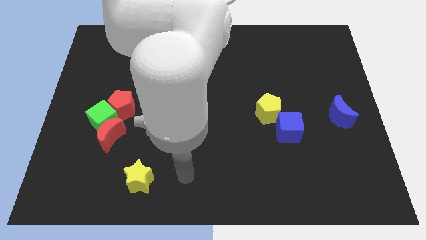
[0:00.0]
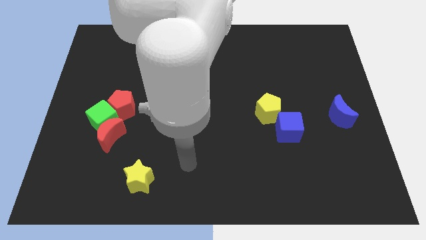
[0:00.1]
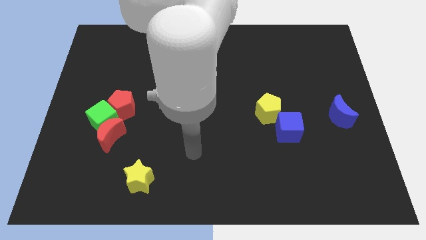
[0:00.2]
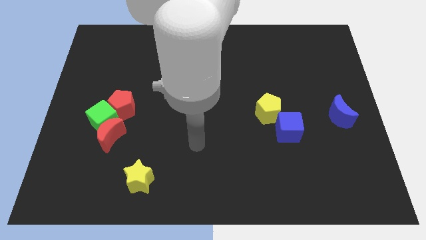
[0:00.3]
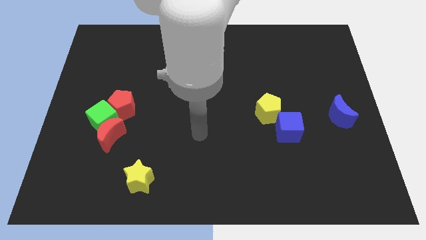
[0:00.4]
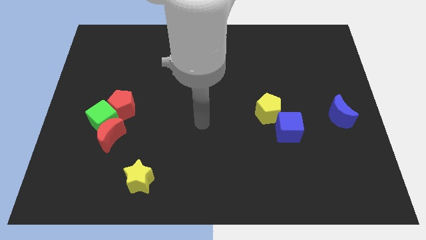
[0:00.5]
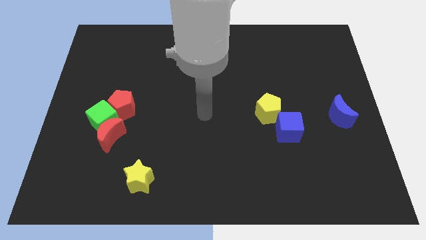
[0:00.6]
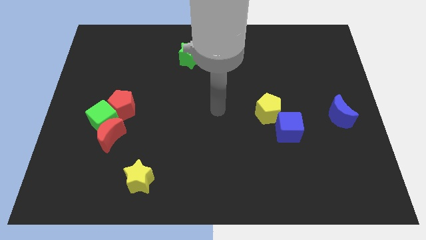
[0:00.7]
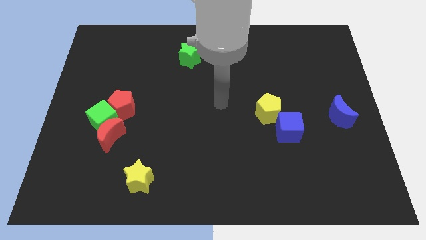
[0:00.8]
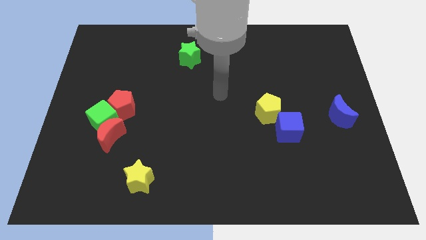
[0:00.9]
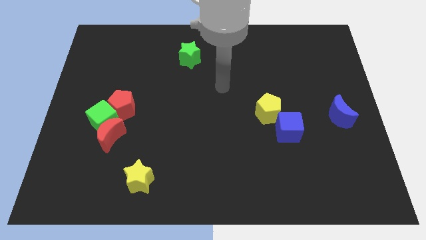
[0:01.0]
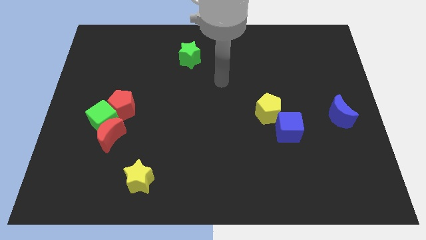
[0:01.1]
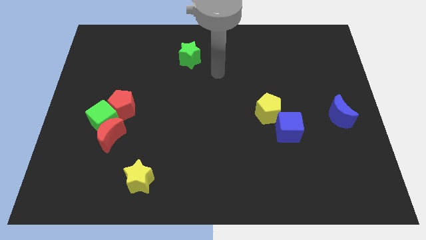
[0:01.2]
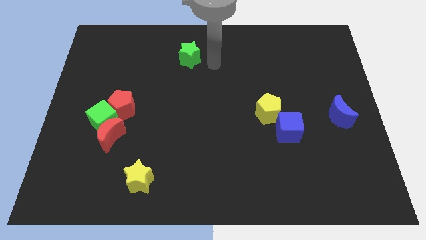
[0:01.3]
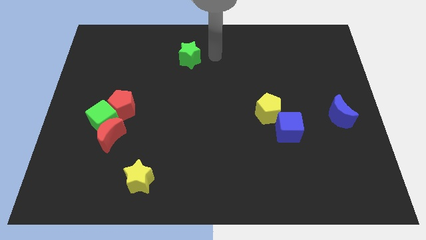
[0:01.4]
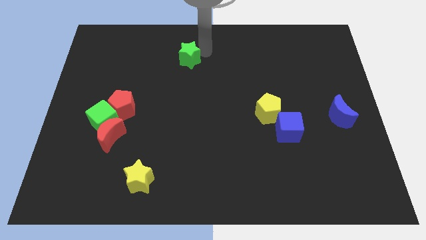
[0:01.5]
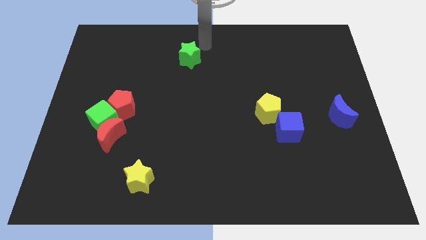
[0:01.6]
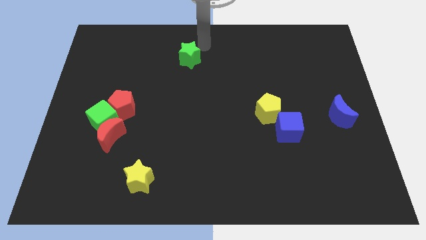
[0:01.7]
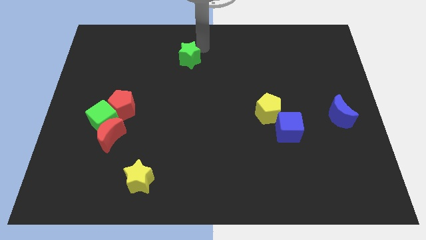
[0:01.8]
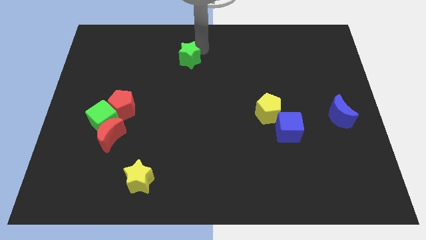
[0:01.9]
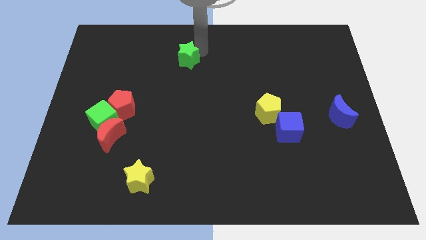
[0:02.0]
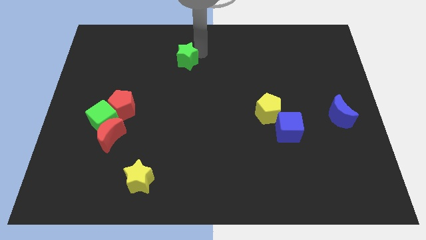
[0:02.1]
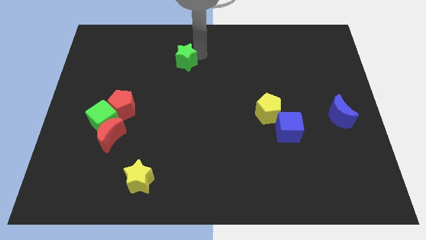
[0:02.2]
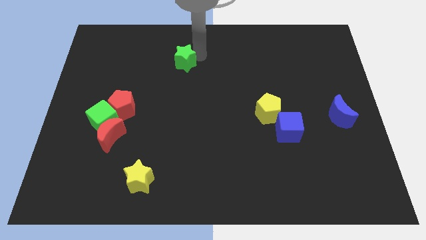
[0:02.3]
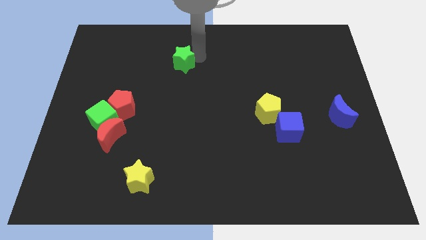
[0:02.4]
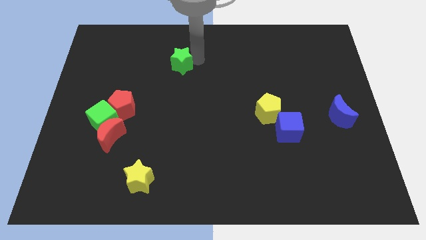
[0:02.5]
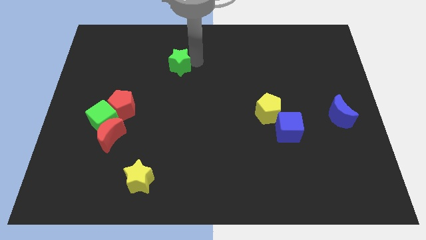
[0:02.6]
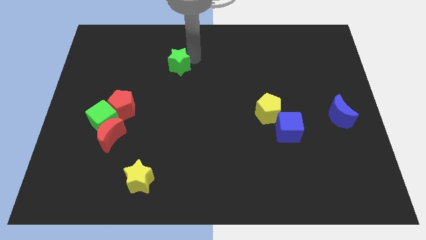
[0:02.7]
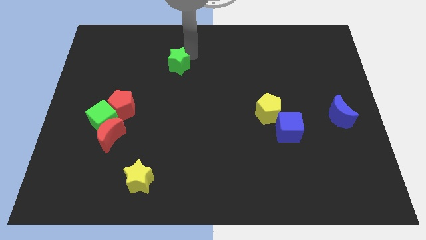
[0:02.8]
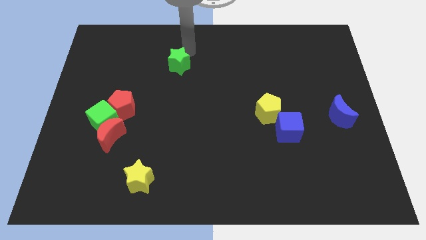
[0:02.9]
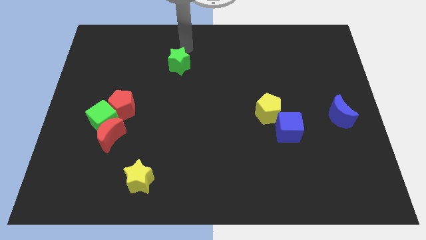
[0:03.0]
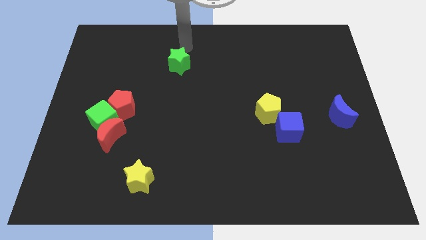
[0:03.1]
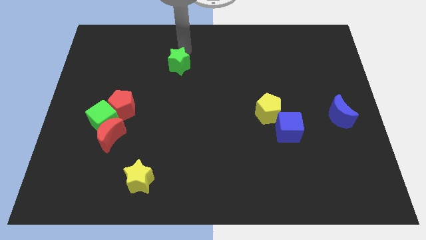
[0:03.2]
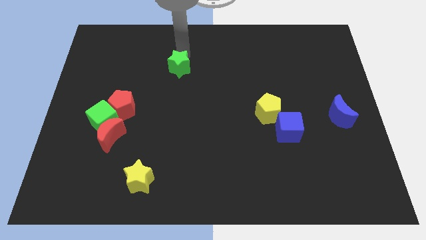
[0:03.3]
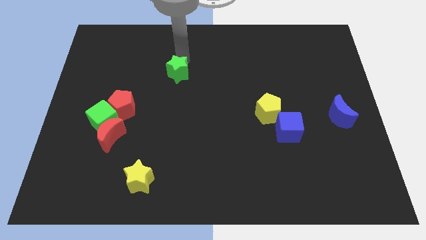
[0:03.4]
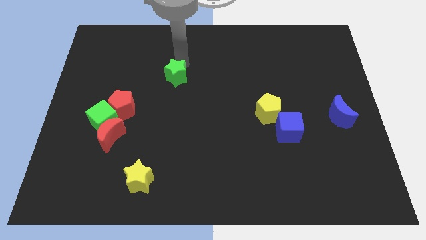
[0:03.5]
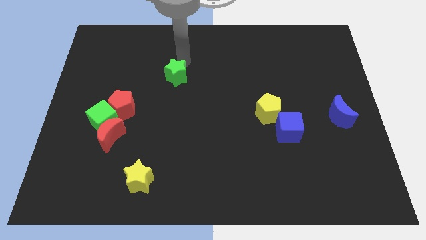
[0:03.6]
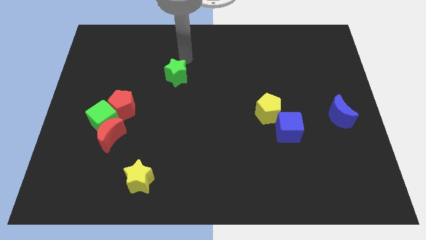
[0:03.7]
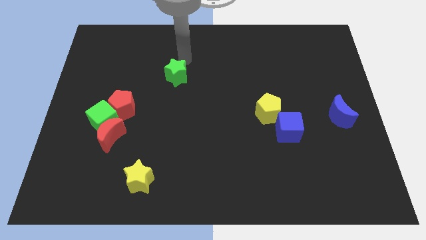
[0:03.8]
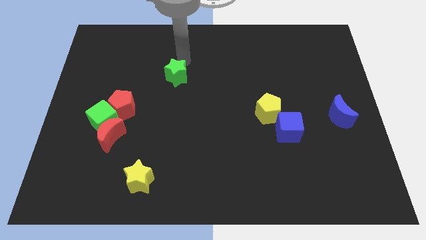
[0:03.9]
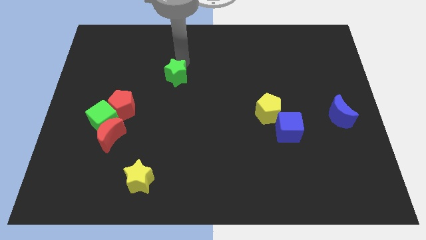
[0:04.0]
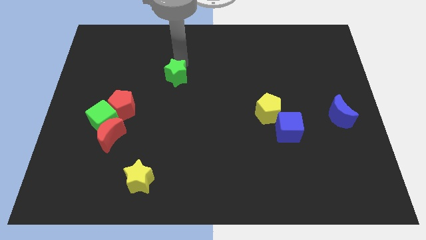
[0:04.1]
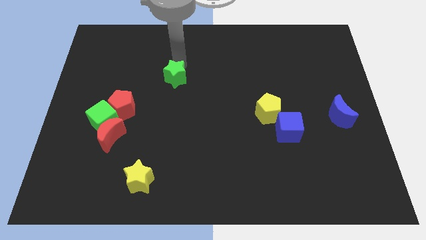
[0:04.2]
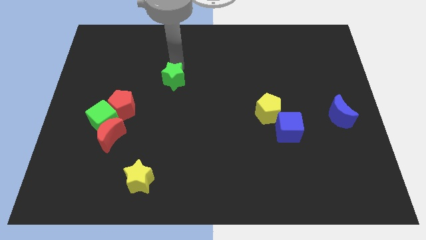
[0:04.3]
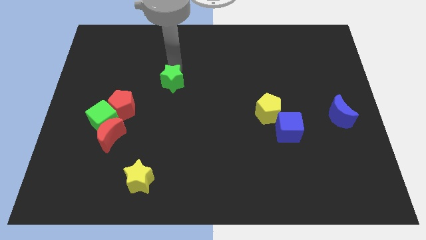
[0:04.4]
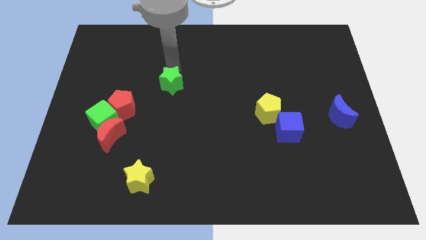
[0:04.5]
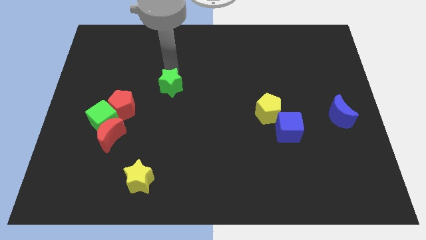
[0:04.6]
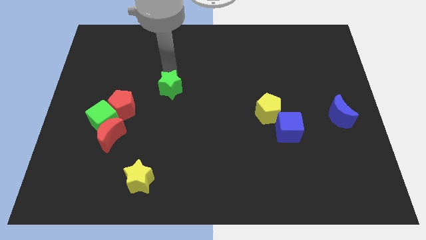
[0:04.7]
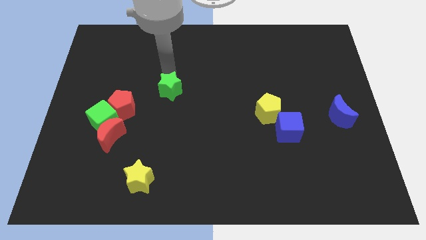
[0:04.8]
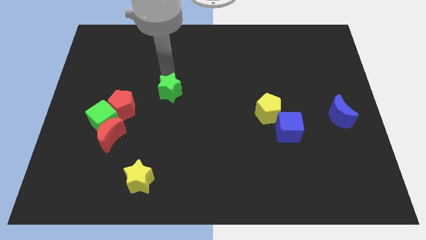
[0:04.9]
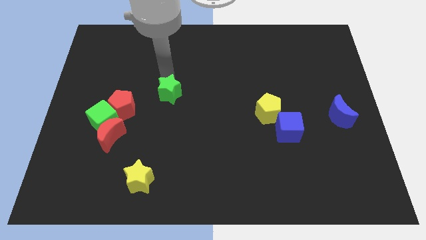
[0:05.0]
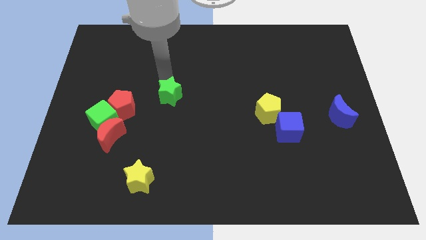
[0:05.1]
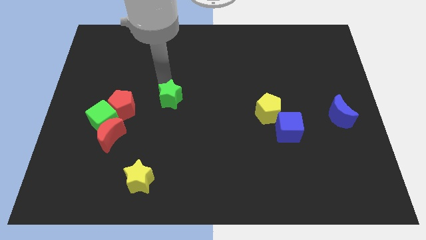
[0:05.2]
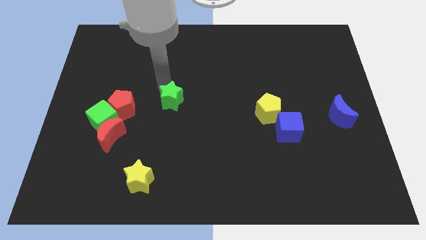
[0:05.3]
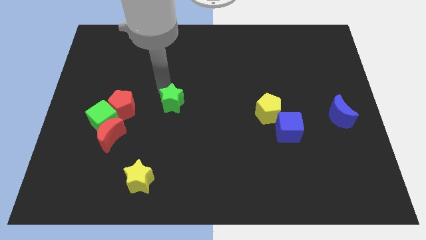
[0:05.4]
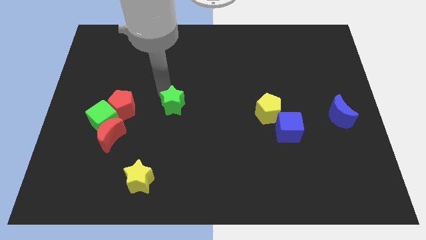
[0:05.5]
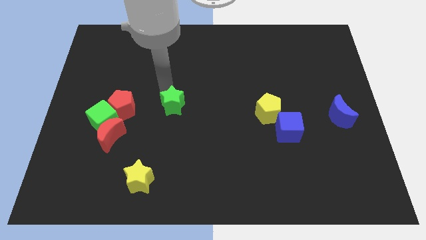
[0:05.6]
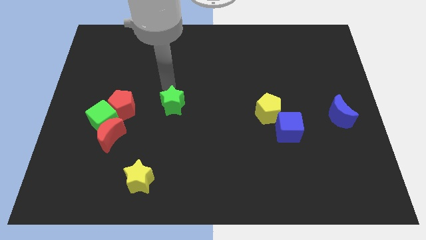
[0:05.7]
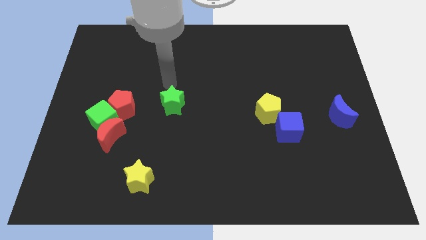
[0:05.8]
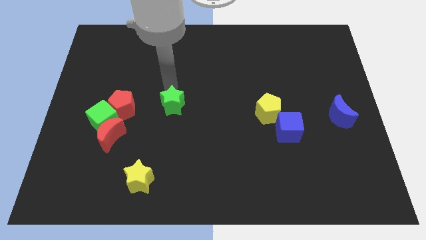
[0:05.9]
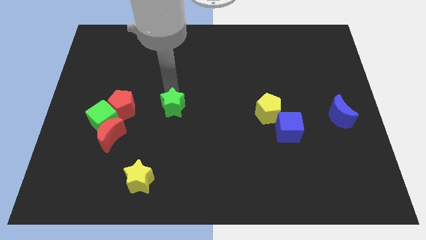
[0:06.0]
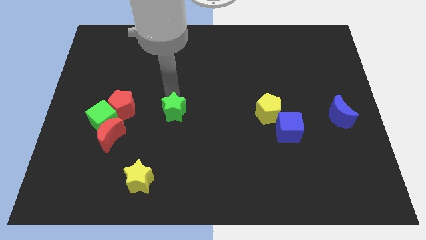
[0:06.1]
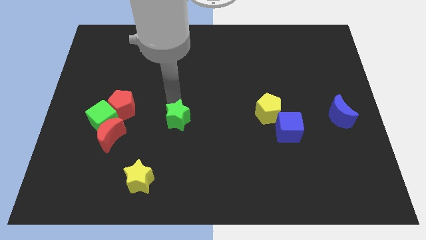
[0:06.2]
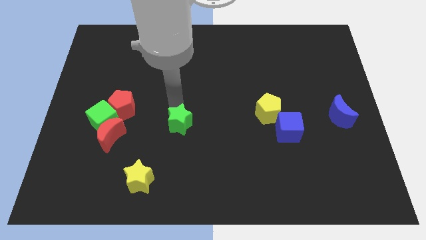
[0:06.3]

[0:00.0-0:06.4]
move the green star downwards

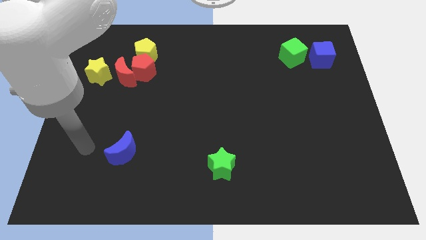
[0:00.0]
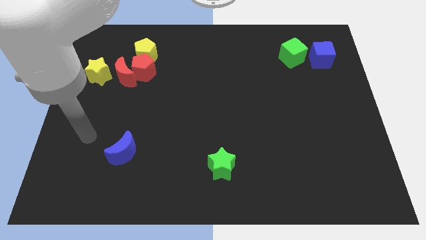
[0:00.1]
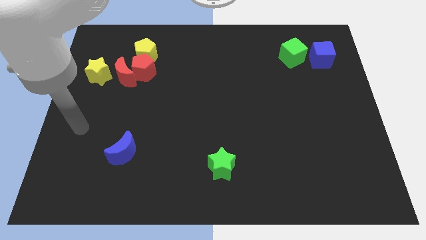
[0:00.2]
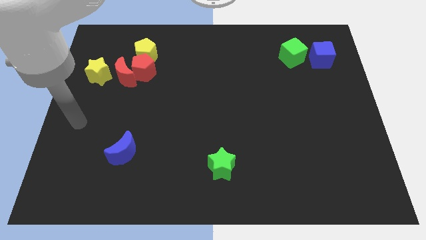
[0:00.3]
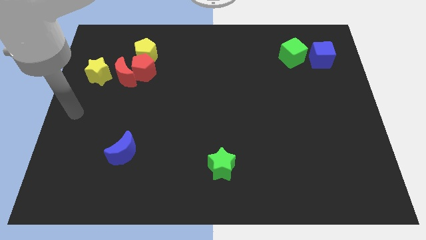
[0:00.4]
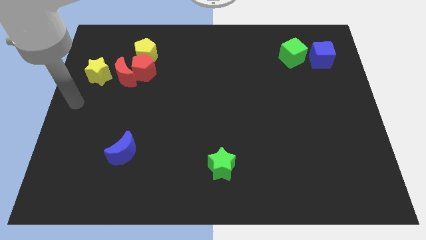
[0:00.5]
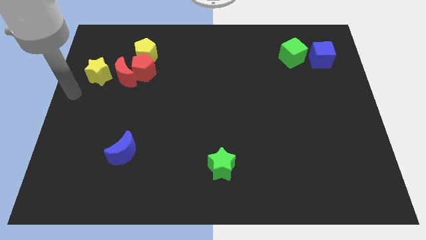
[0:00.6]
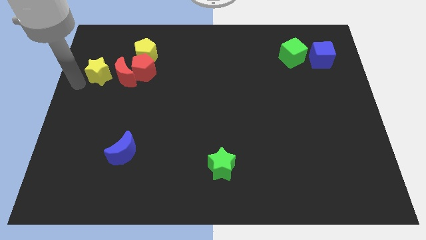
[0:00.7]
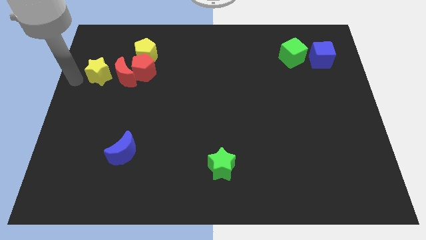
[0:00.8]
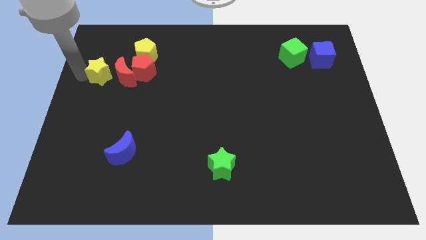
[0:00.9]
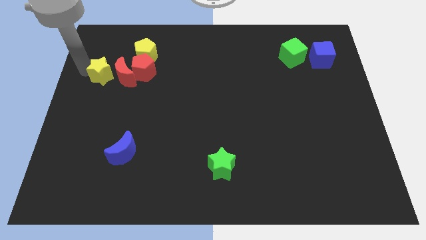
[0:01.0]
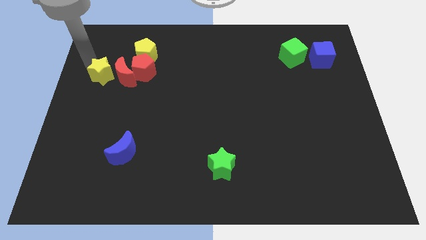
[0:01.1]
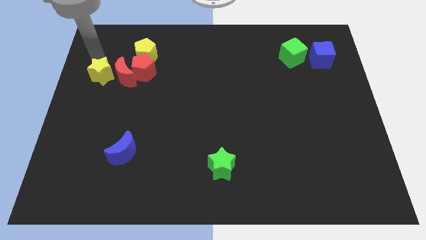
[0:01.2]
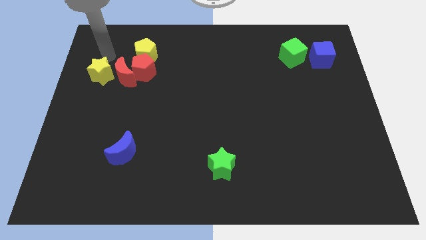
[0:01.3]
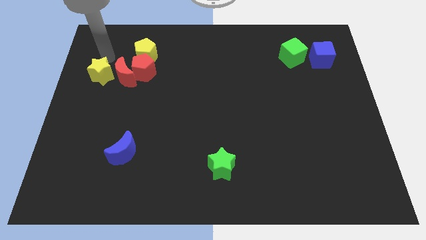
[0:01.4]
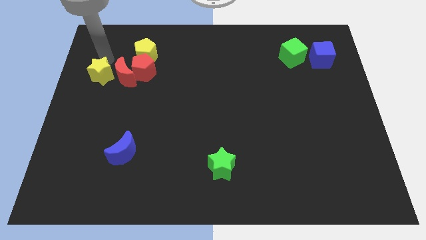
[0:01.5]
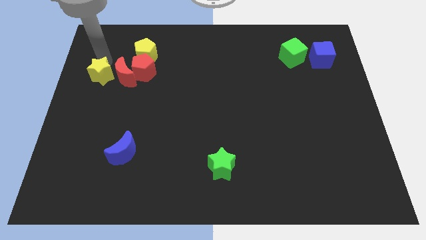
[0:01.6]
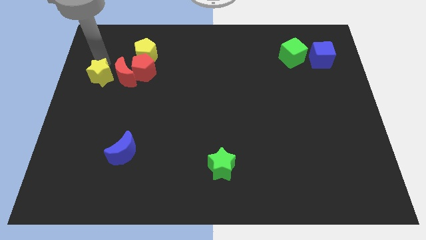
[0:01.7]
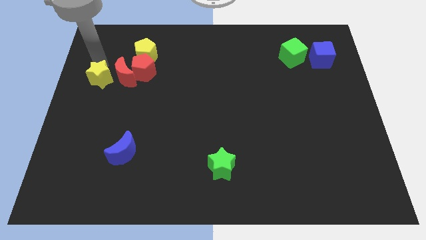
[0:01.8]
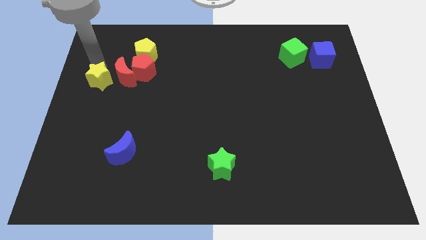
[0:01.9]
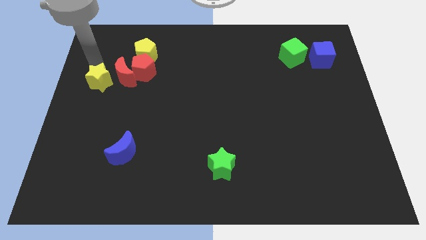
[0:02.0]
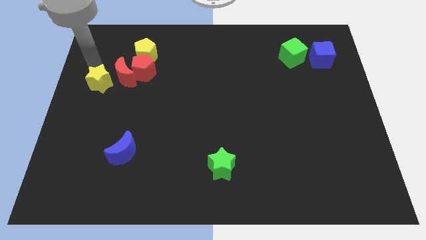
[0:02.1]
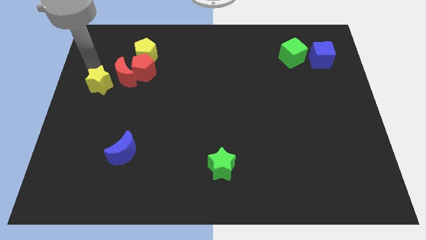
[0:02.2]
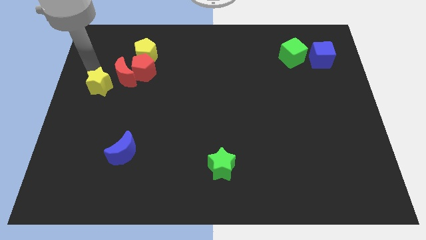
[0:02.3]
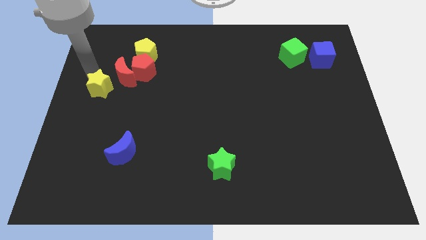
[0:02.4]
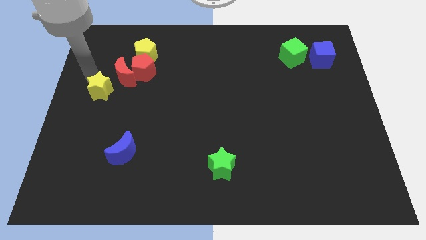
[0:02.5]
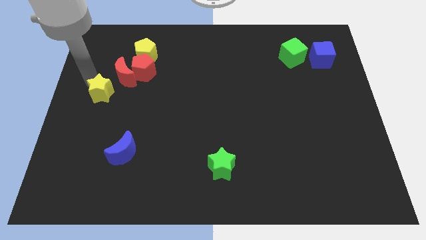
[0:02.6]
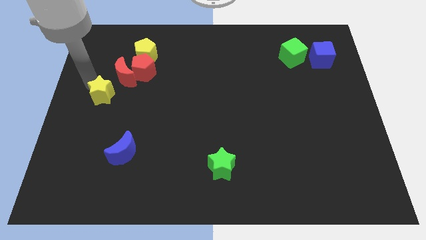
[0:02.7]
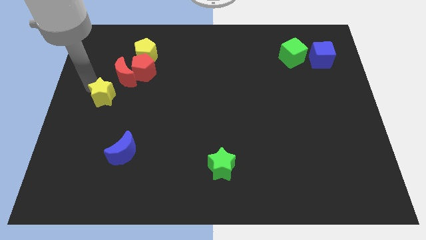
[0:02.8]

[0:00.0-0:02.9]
move the yellow star somewhat down
